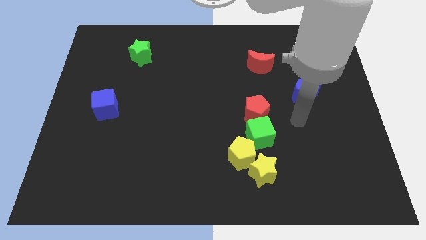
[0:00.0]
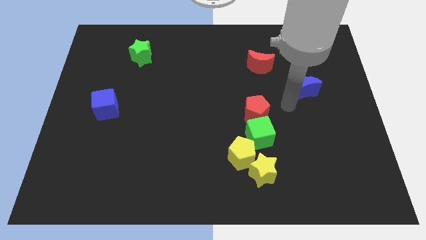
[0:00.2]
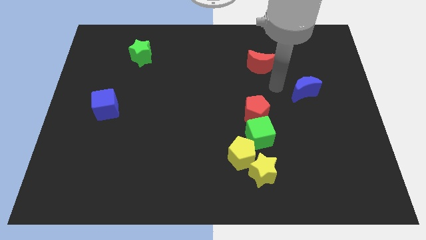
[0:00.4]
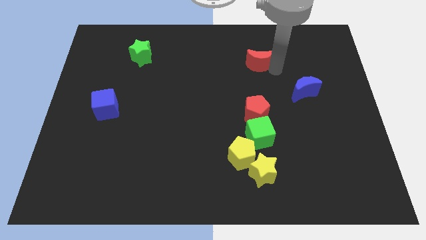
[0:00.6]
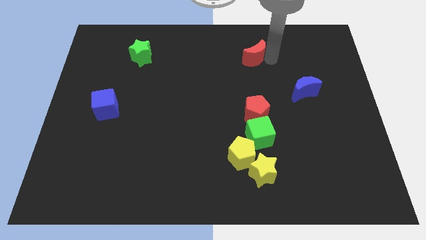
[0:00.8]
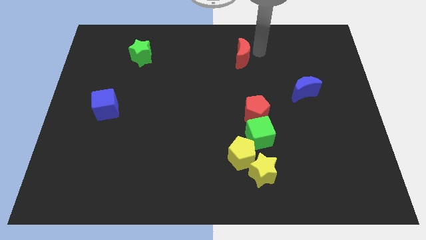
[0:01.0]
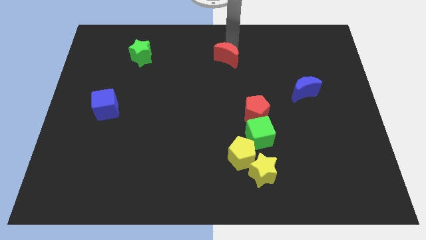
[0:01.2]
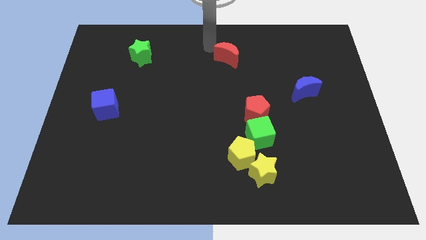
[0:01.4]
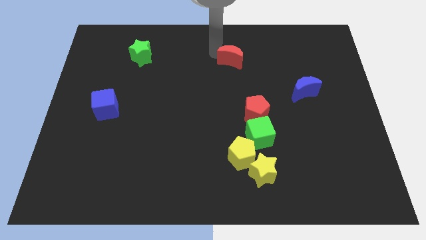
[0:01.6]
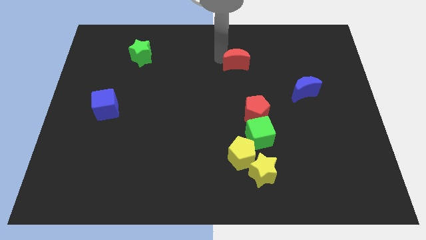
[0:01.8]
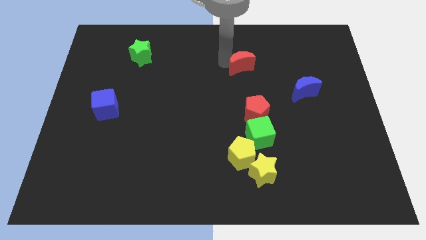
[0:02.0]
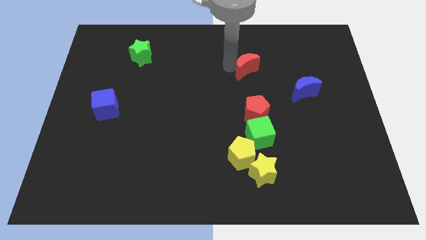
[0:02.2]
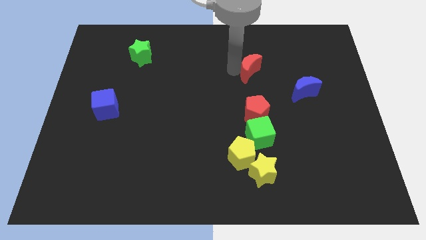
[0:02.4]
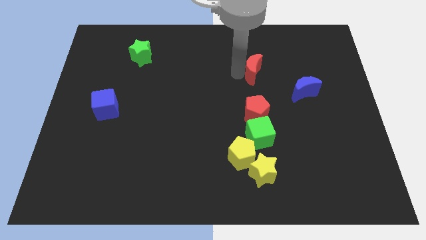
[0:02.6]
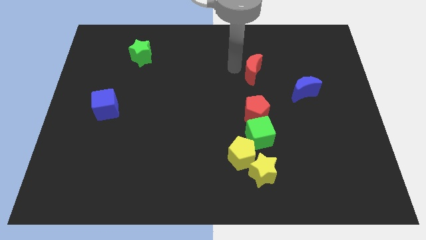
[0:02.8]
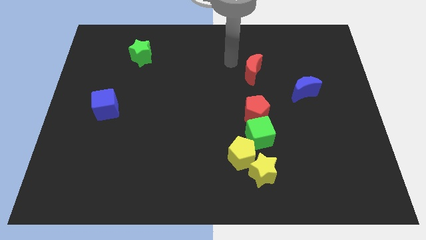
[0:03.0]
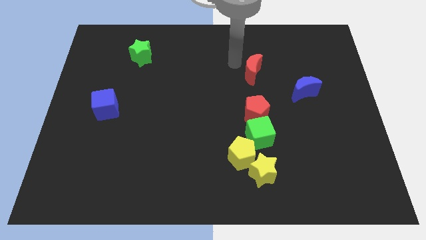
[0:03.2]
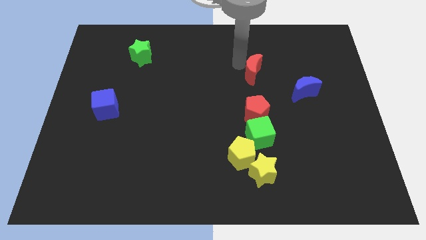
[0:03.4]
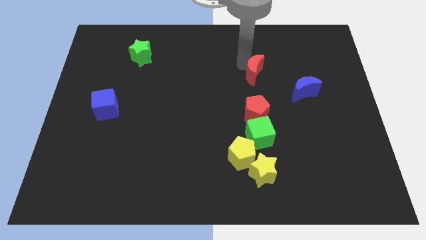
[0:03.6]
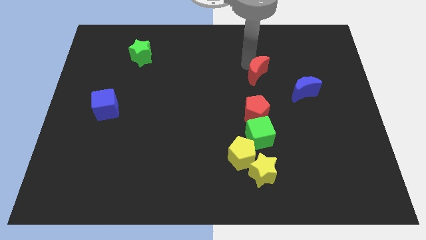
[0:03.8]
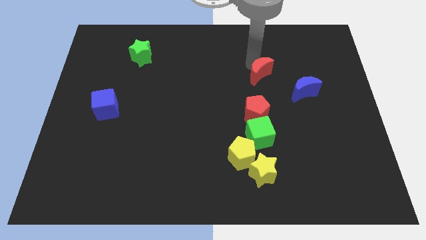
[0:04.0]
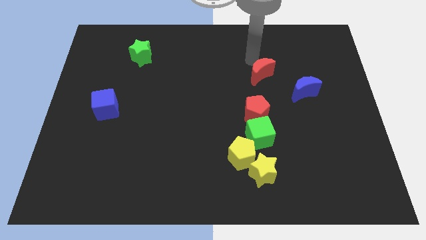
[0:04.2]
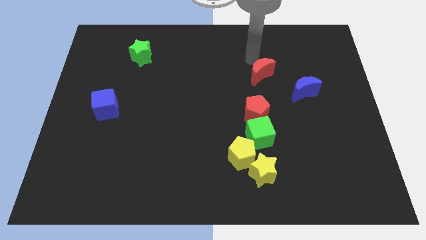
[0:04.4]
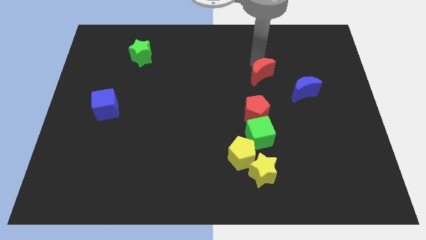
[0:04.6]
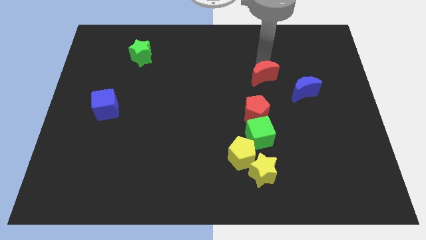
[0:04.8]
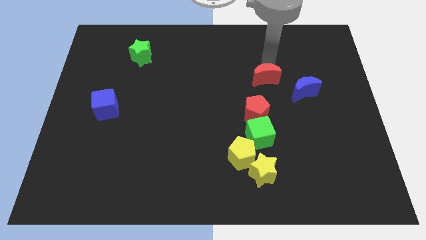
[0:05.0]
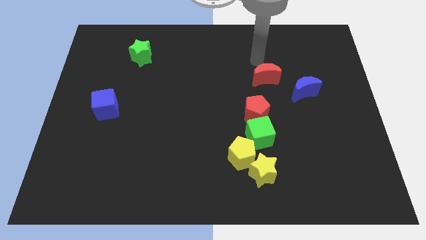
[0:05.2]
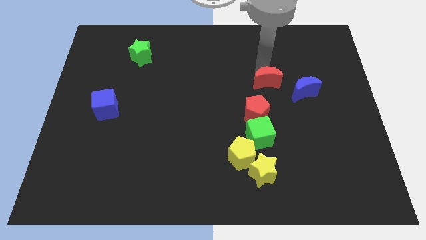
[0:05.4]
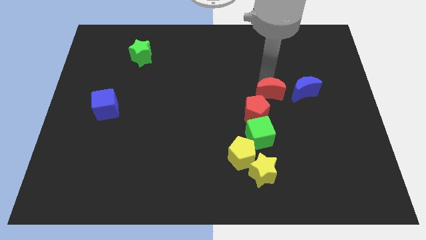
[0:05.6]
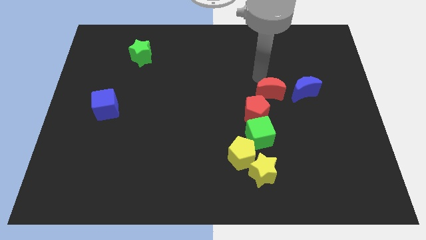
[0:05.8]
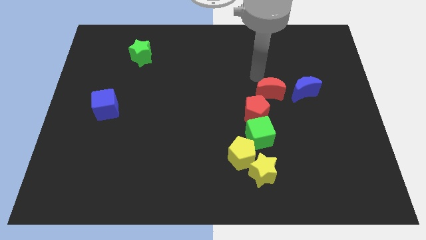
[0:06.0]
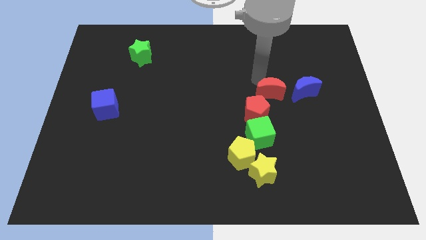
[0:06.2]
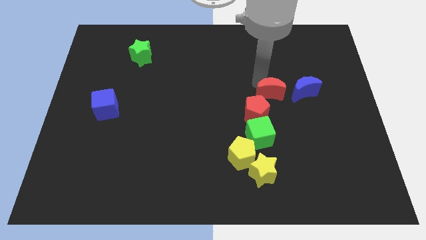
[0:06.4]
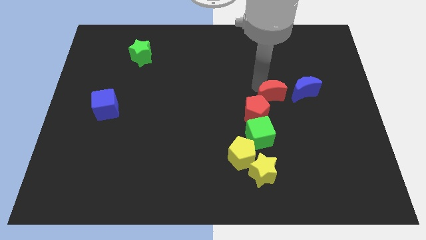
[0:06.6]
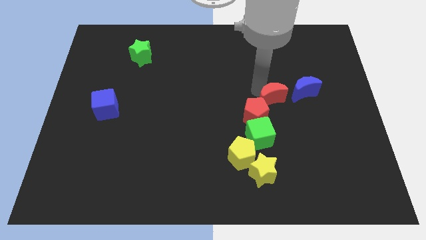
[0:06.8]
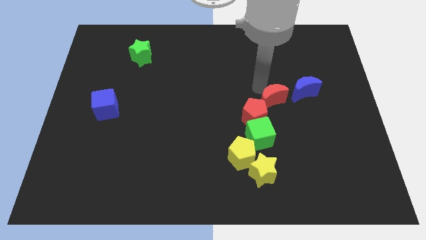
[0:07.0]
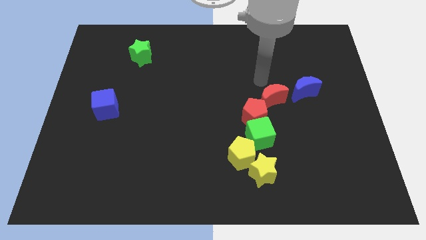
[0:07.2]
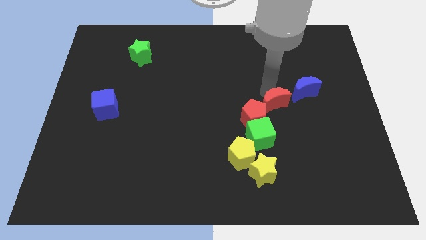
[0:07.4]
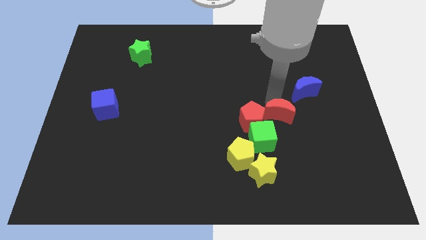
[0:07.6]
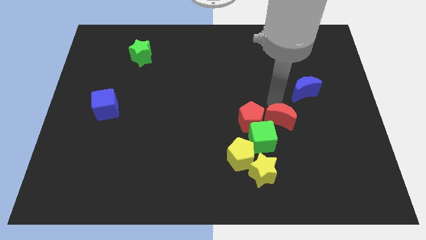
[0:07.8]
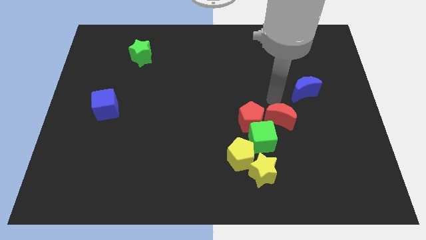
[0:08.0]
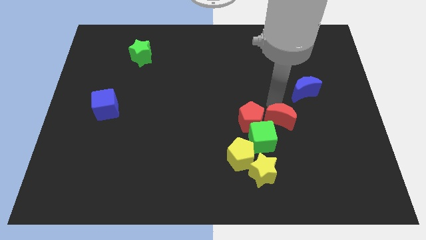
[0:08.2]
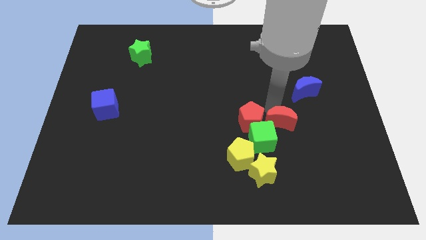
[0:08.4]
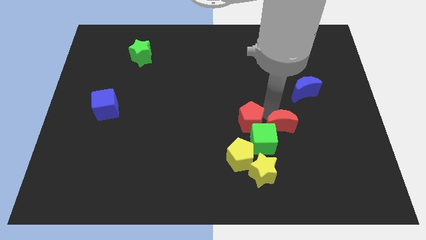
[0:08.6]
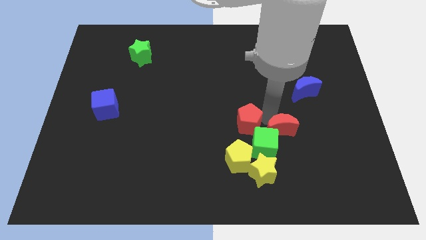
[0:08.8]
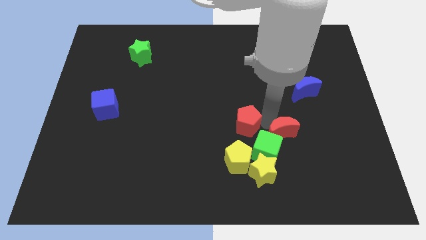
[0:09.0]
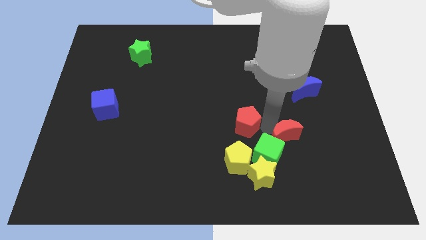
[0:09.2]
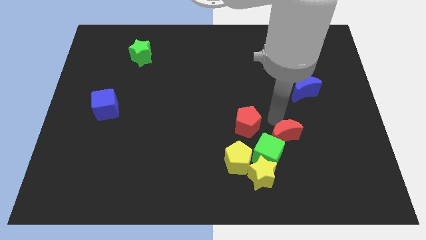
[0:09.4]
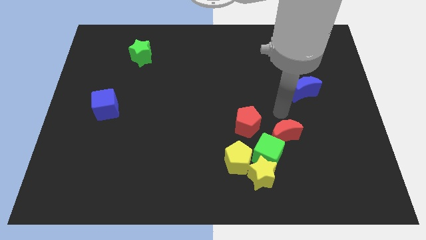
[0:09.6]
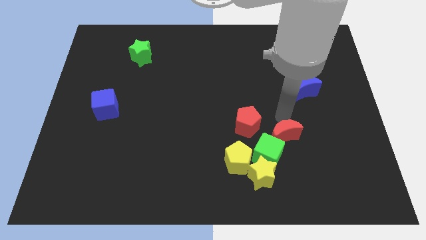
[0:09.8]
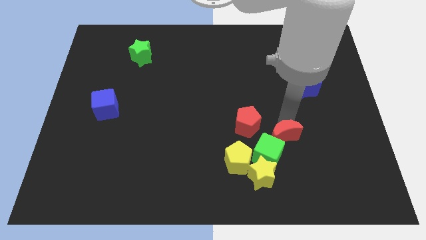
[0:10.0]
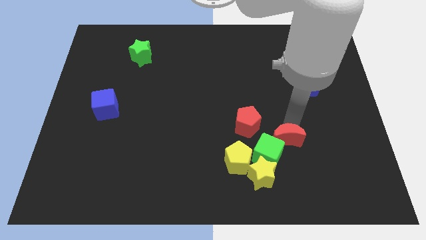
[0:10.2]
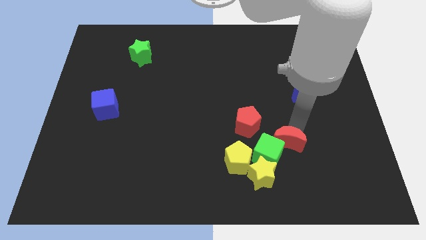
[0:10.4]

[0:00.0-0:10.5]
push the red moon just right of the yellow pentagon

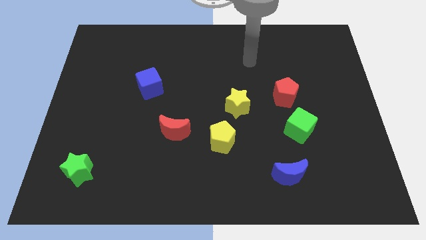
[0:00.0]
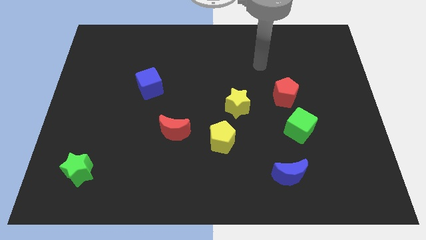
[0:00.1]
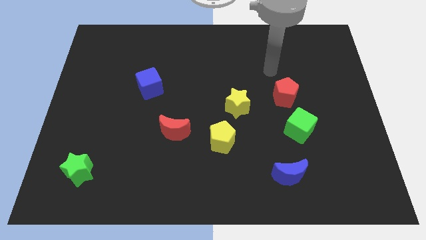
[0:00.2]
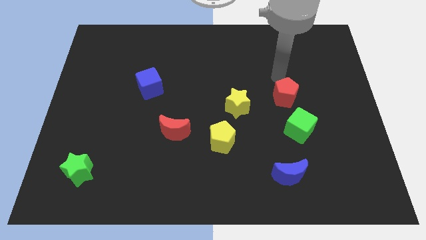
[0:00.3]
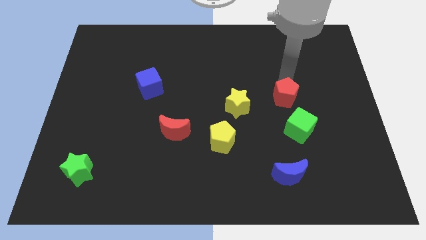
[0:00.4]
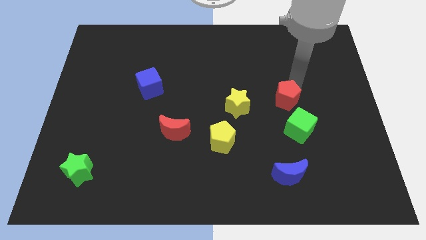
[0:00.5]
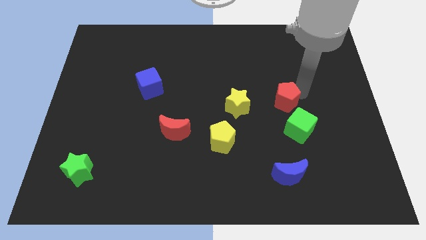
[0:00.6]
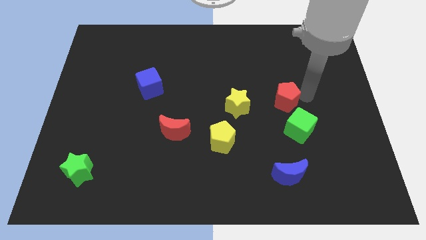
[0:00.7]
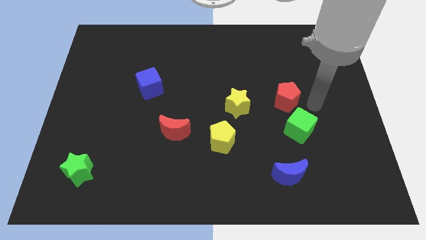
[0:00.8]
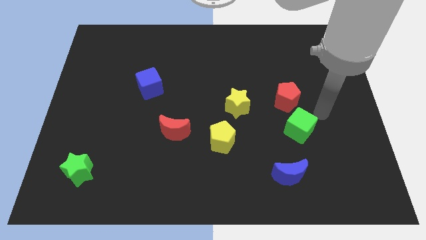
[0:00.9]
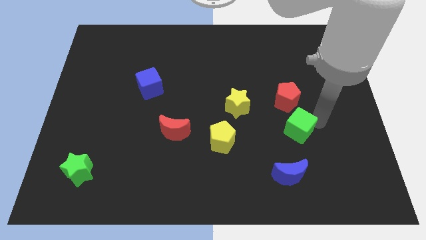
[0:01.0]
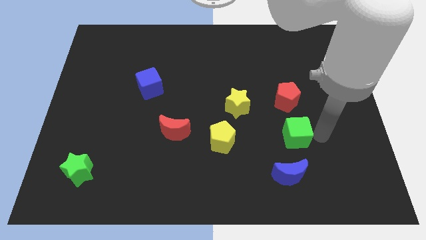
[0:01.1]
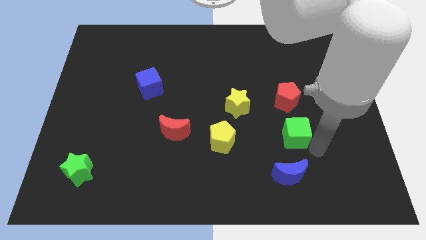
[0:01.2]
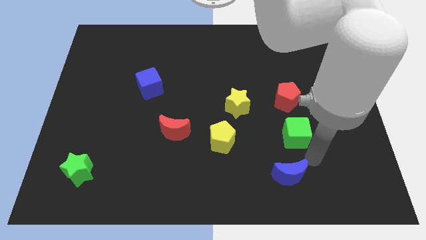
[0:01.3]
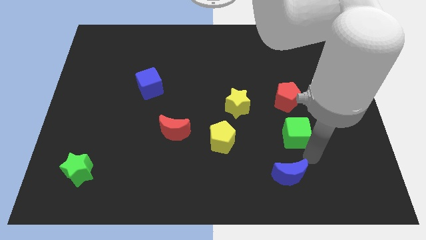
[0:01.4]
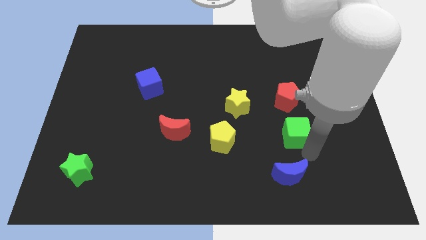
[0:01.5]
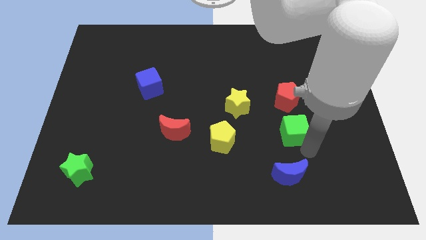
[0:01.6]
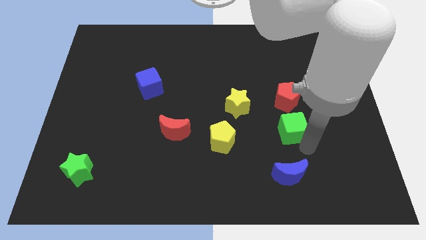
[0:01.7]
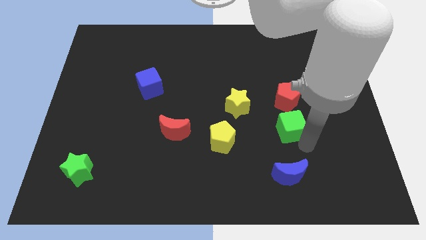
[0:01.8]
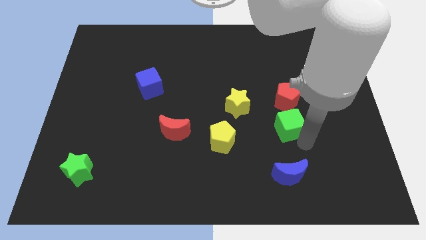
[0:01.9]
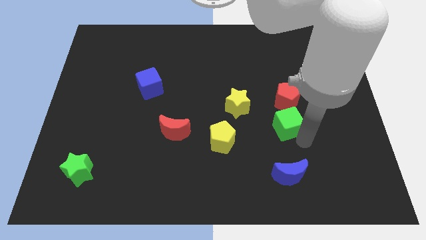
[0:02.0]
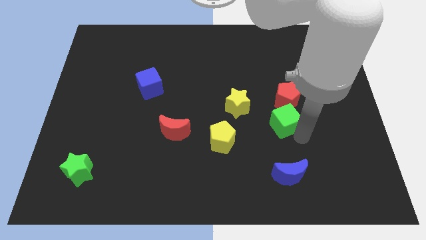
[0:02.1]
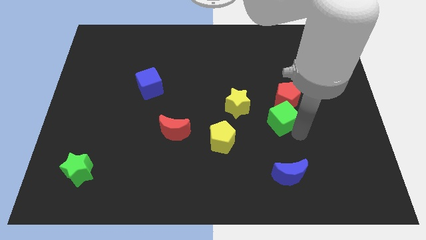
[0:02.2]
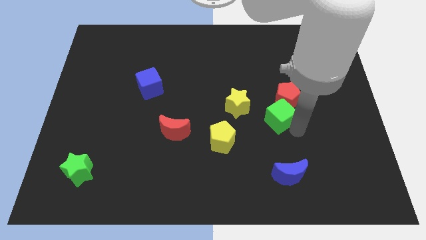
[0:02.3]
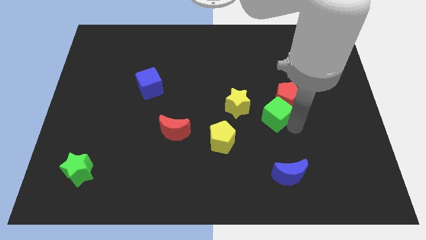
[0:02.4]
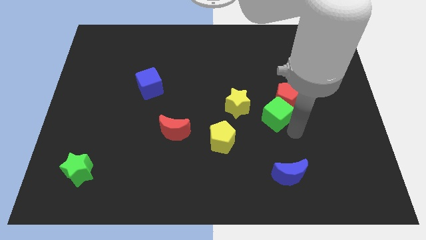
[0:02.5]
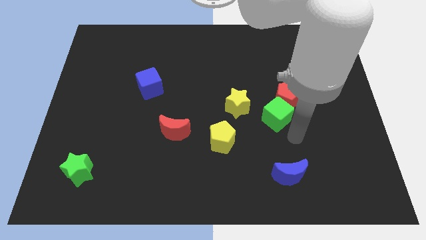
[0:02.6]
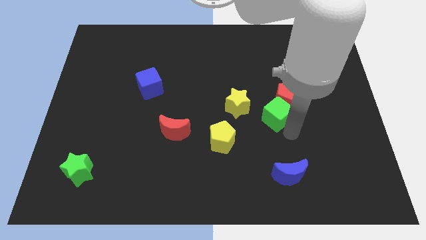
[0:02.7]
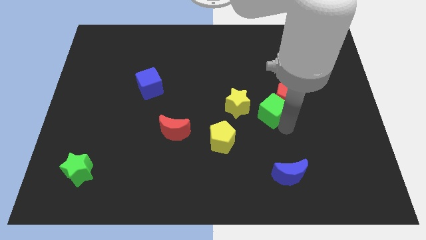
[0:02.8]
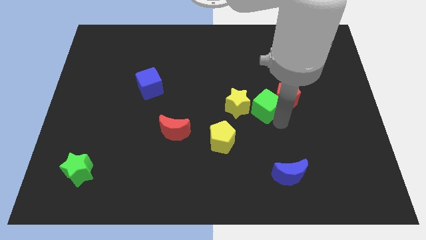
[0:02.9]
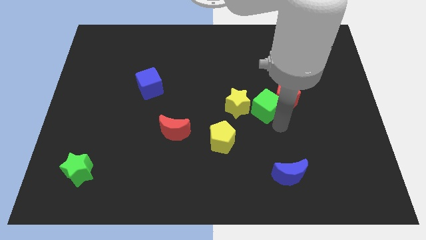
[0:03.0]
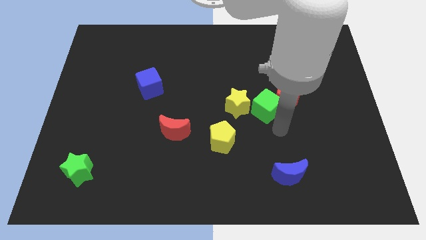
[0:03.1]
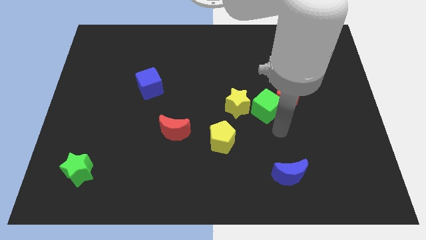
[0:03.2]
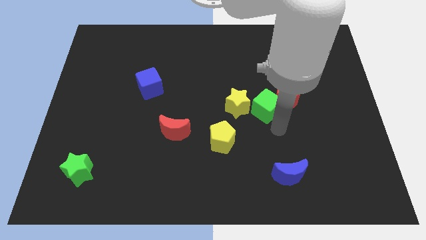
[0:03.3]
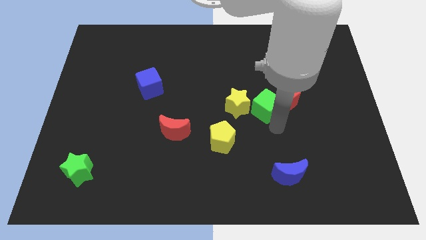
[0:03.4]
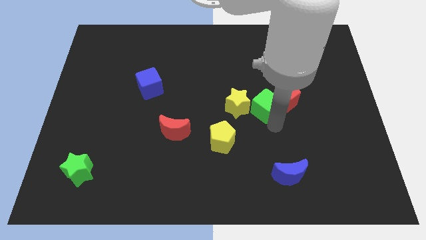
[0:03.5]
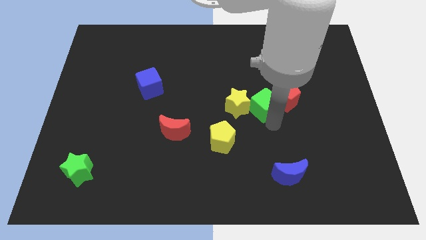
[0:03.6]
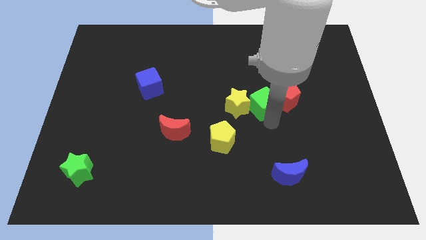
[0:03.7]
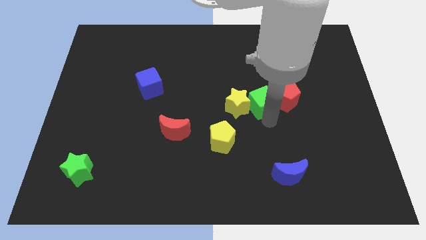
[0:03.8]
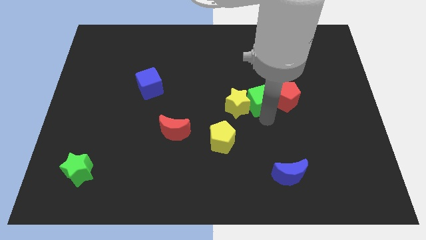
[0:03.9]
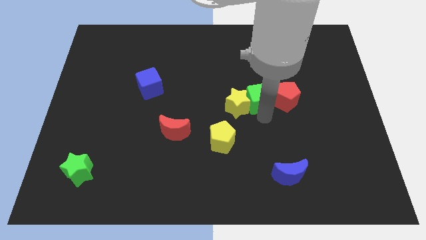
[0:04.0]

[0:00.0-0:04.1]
move the green cube to the top left of the red pentagon
